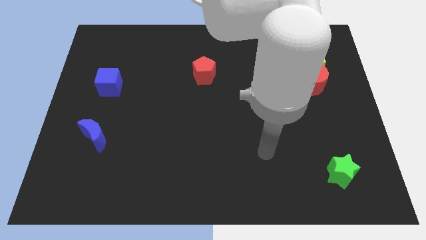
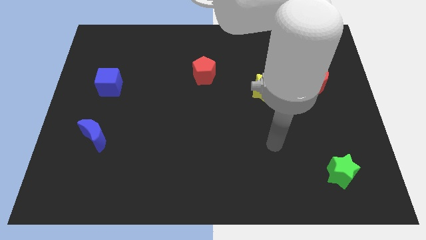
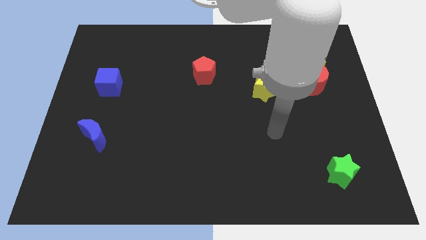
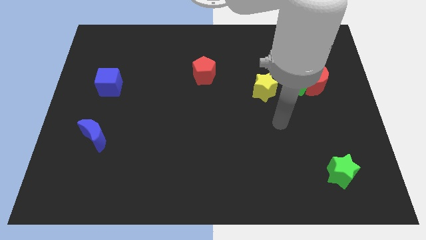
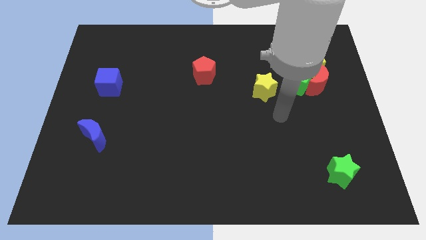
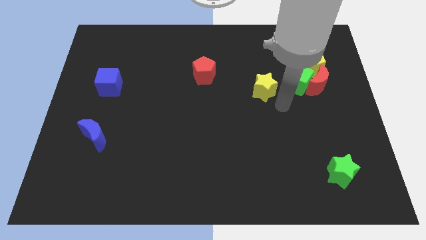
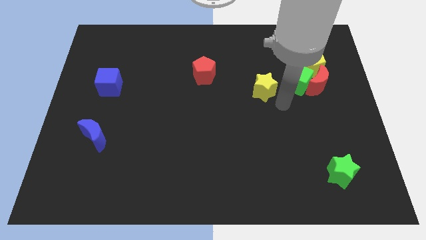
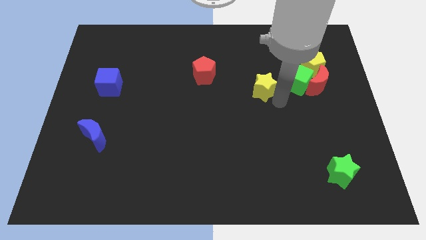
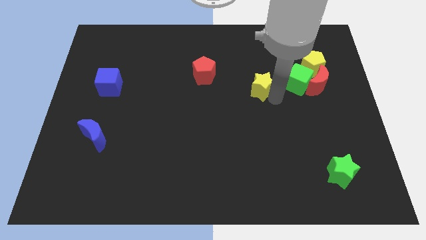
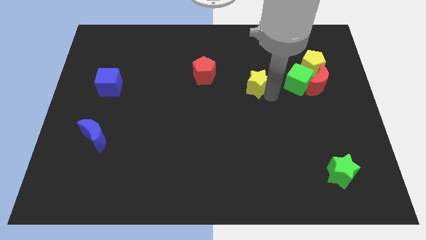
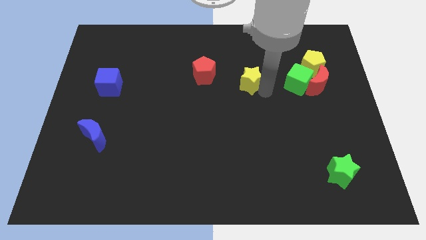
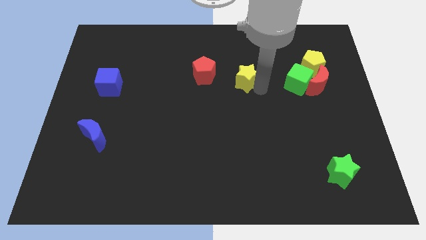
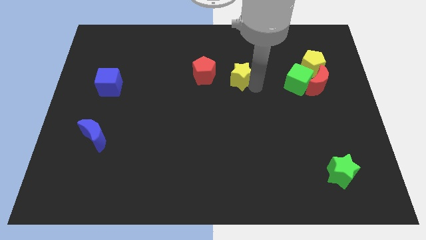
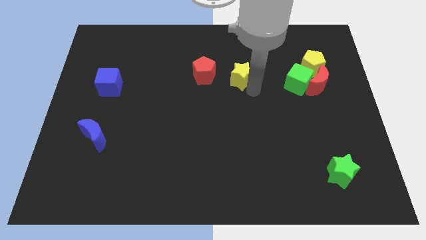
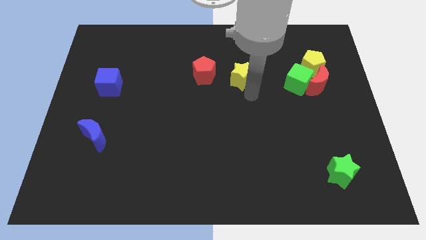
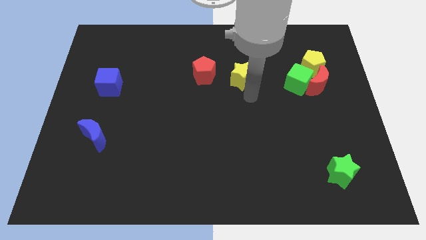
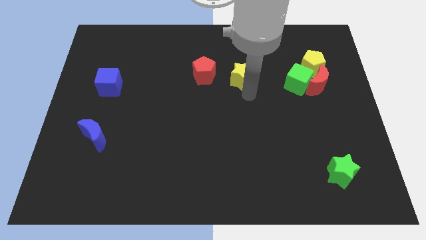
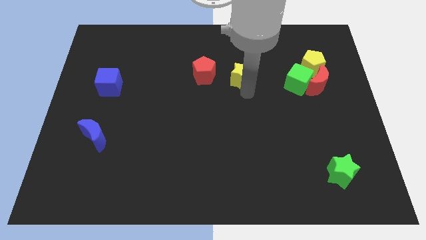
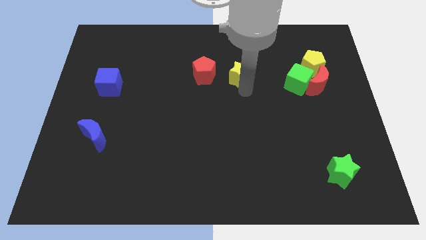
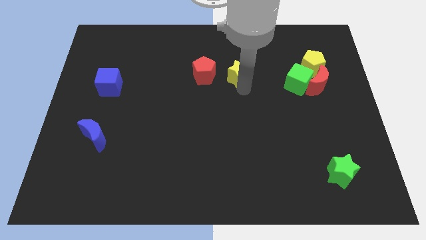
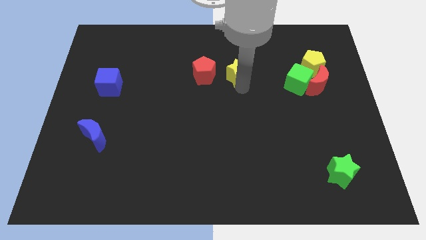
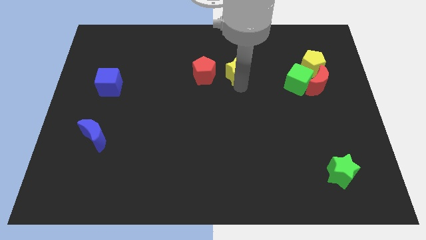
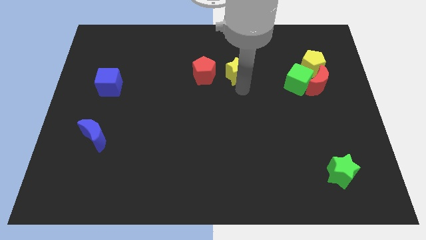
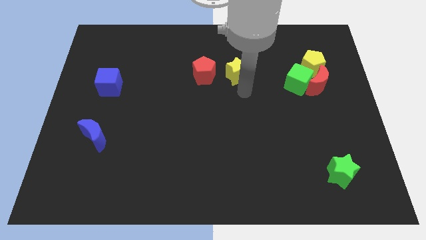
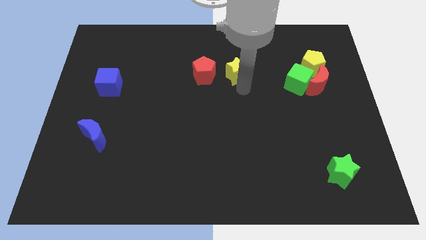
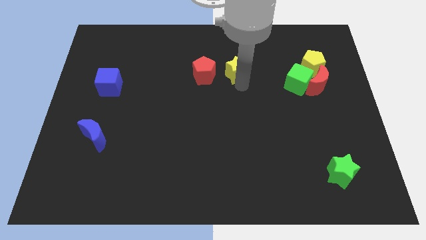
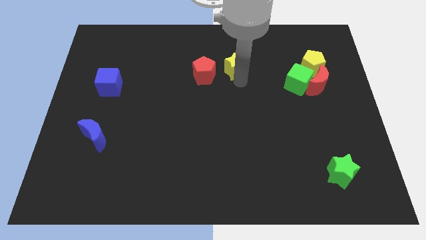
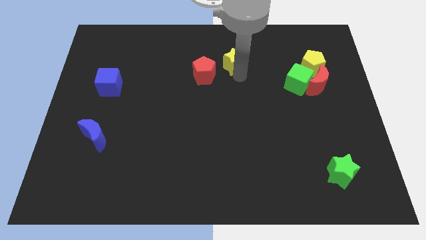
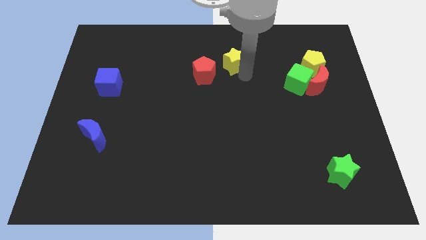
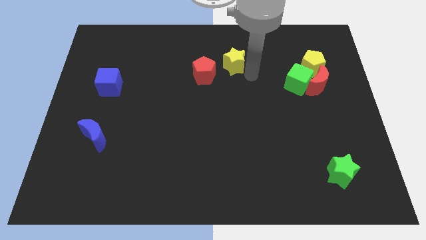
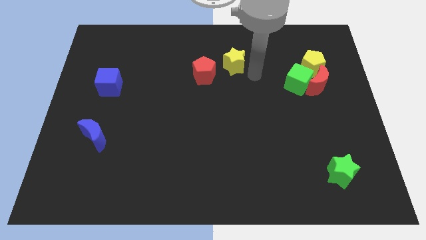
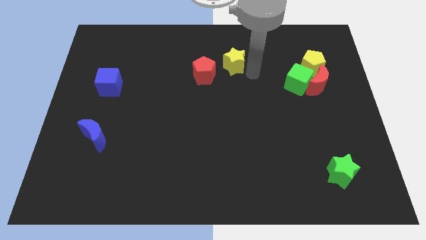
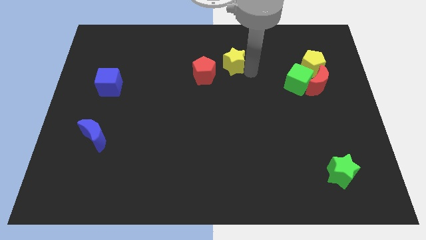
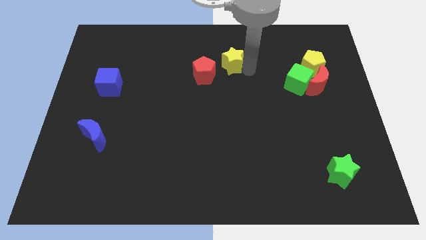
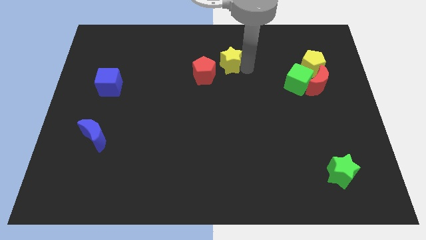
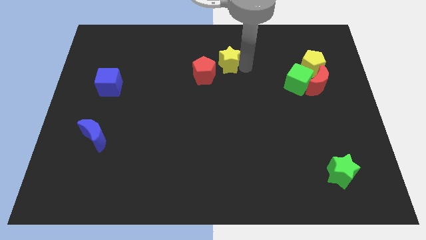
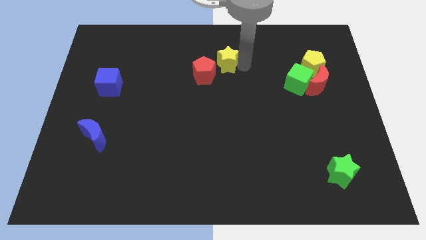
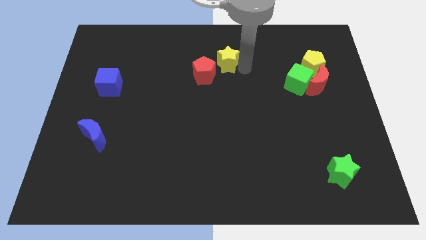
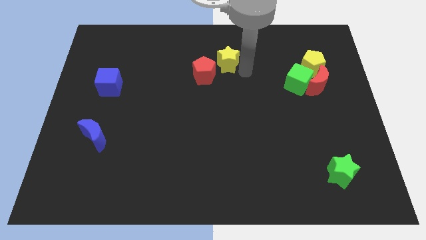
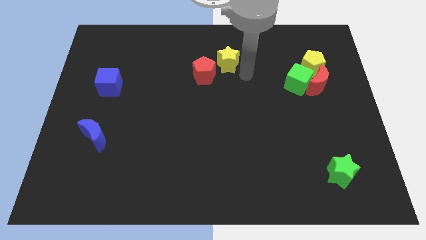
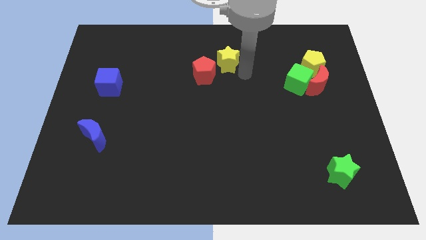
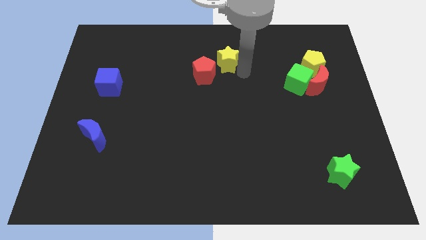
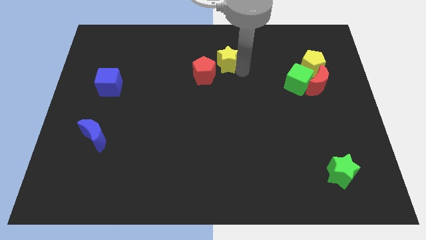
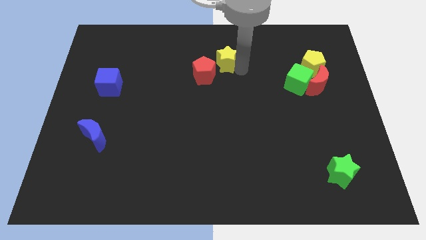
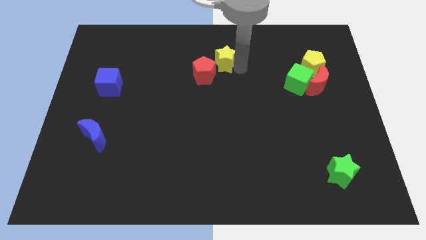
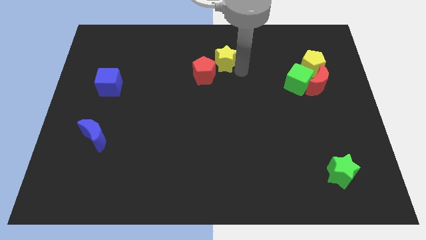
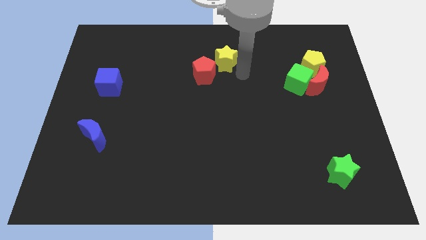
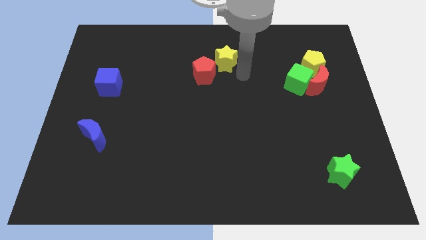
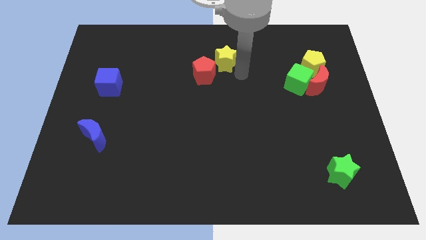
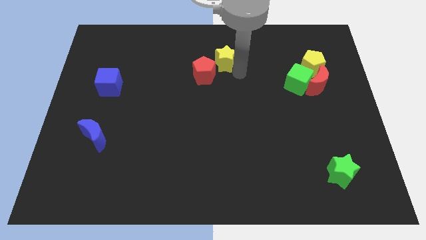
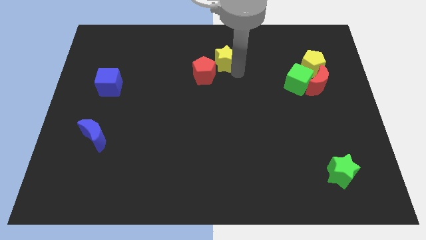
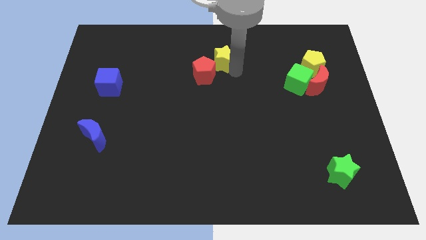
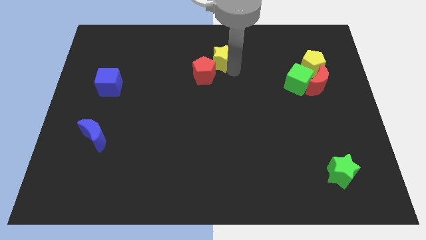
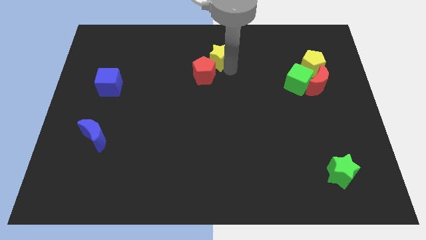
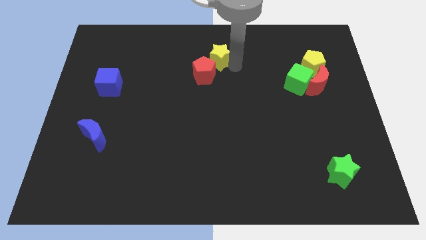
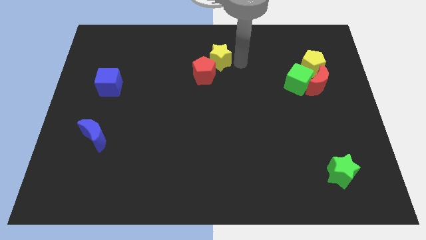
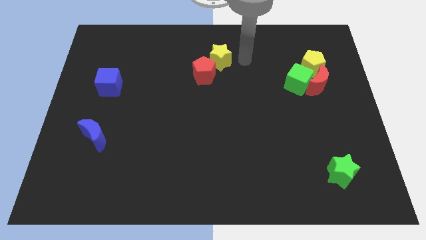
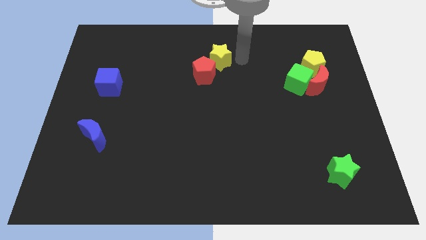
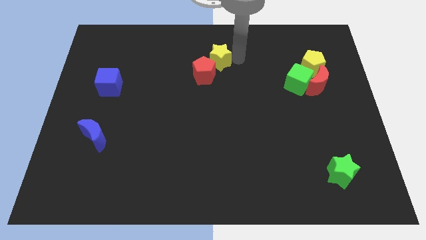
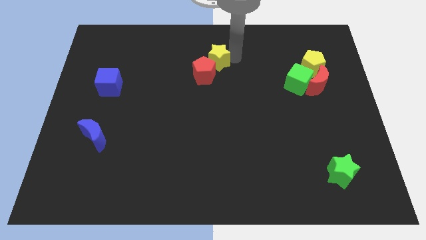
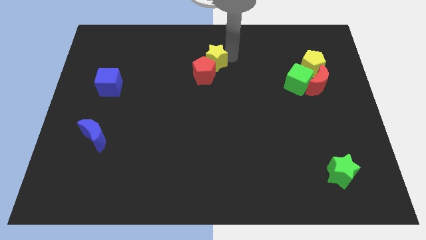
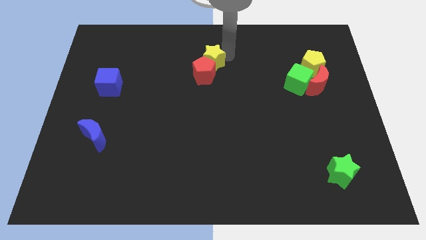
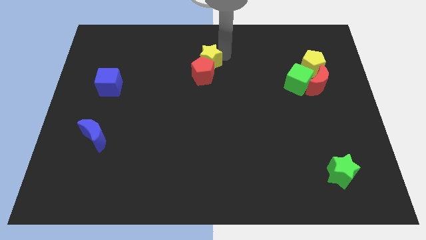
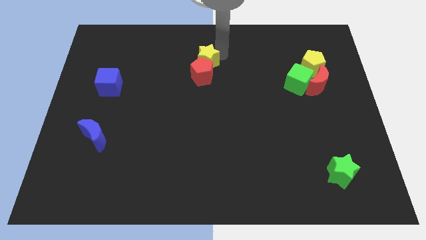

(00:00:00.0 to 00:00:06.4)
put the yellow star to the top left side of the red pentagon

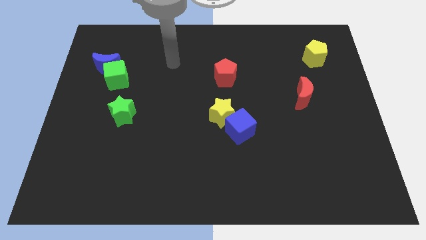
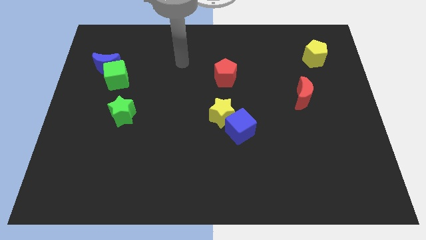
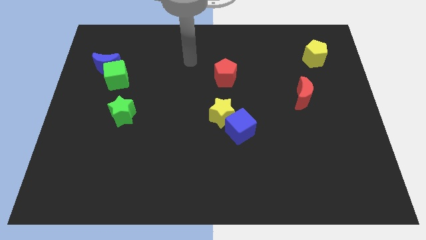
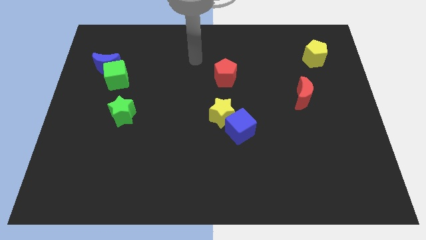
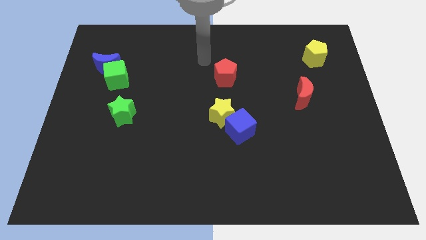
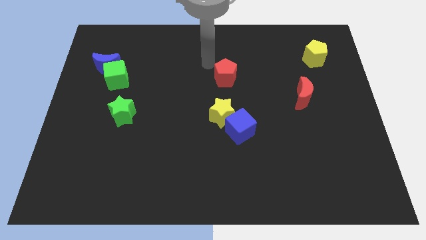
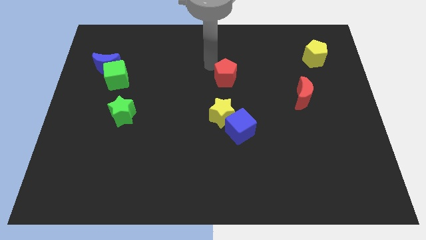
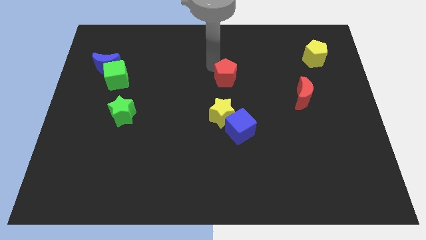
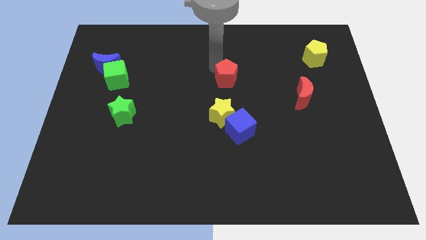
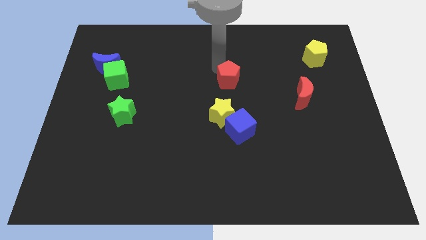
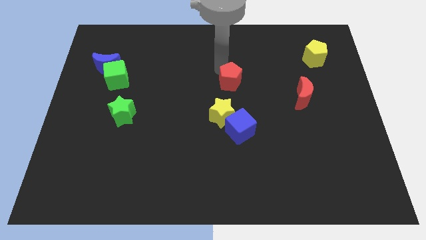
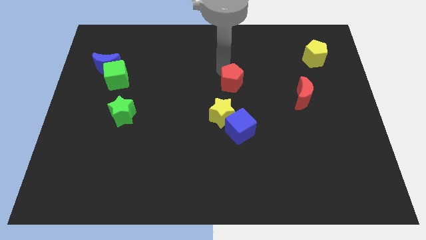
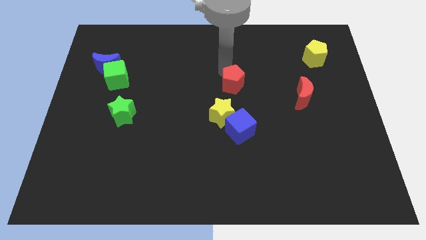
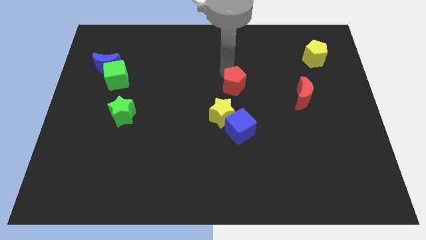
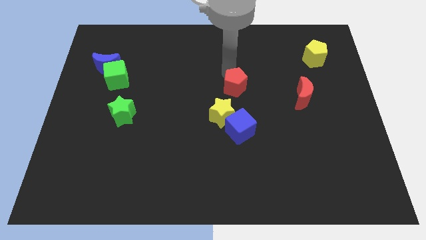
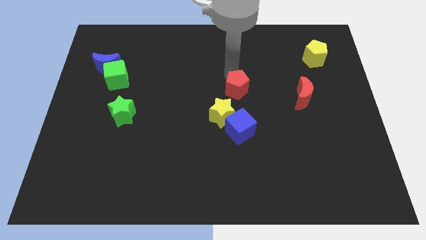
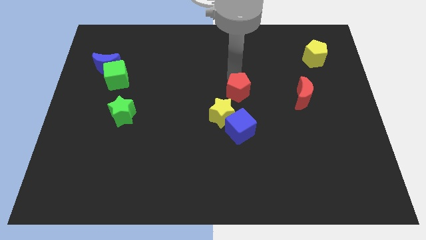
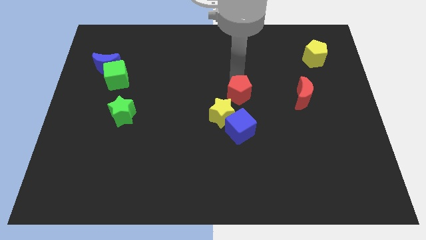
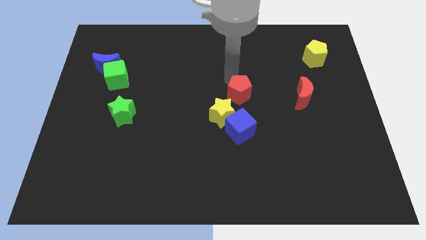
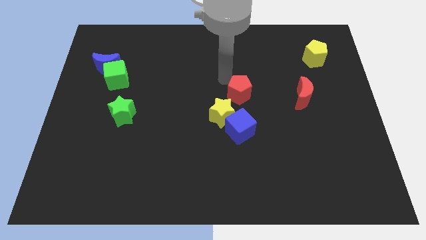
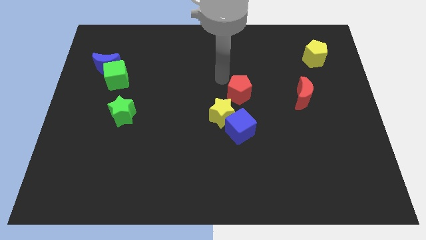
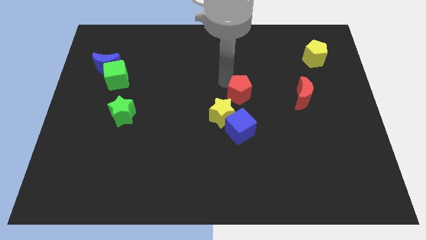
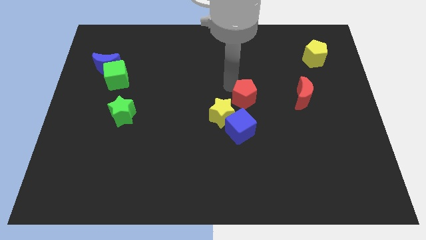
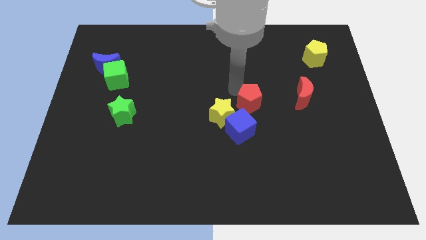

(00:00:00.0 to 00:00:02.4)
move the red pentagon to the top right side of the blue cube
